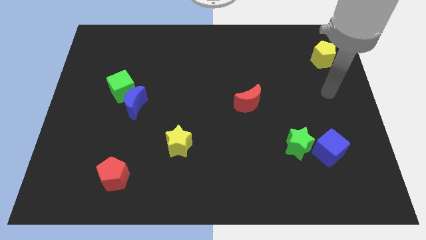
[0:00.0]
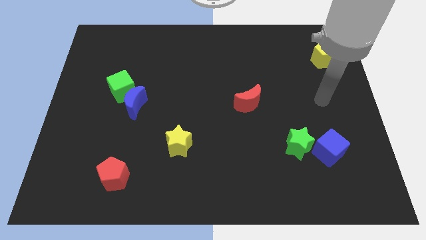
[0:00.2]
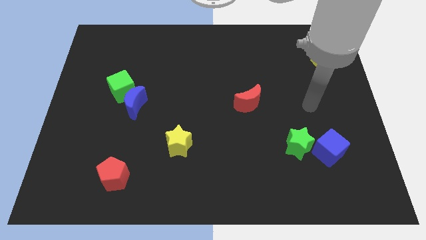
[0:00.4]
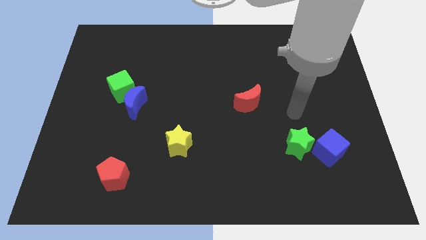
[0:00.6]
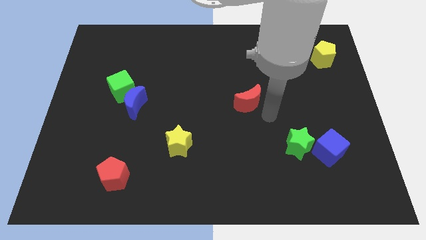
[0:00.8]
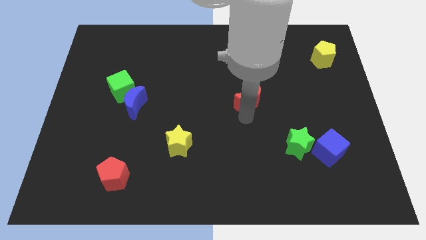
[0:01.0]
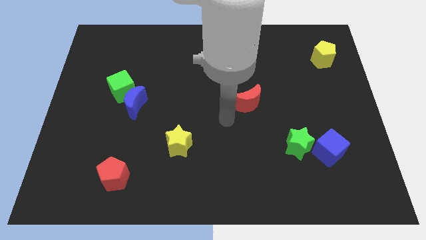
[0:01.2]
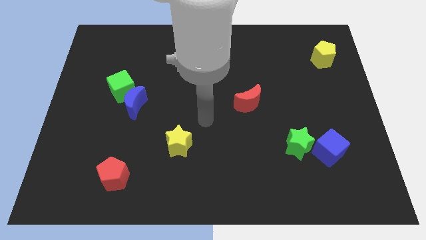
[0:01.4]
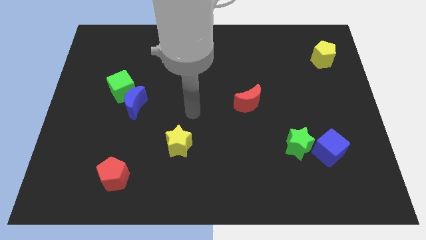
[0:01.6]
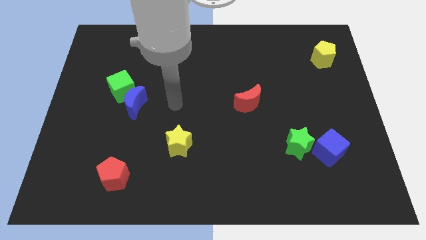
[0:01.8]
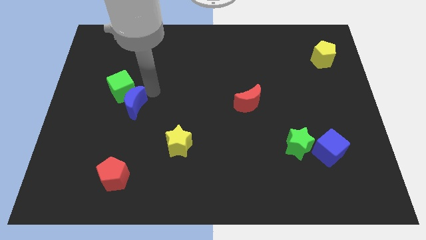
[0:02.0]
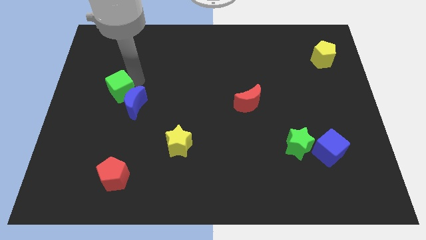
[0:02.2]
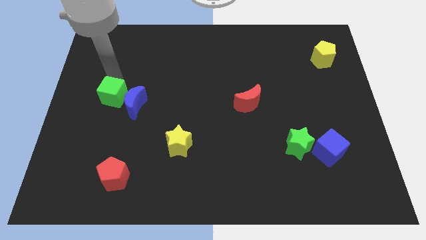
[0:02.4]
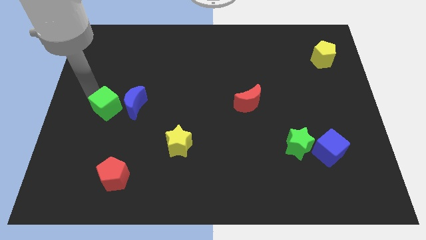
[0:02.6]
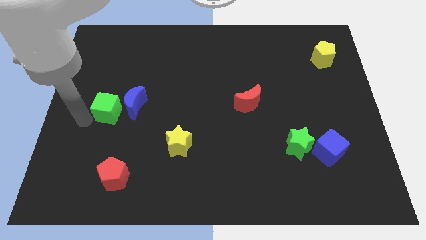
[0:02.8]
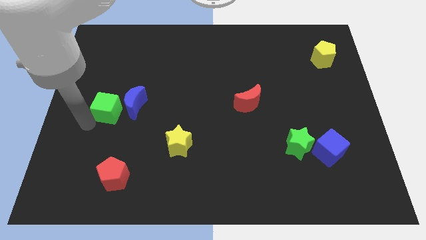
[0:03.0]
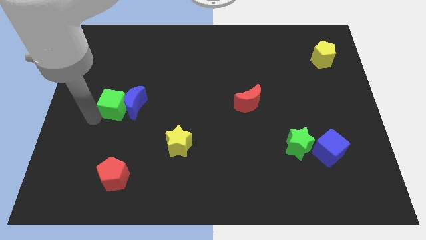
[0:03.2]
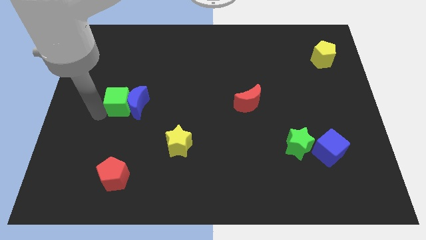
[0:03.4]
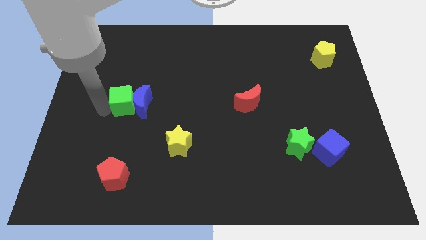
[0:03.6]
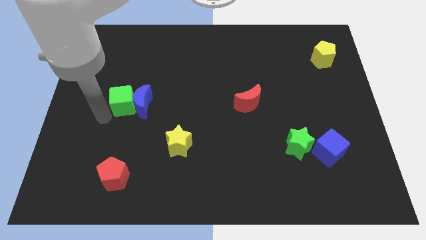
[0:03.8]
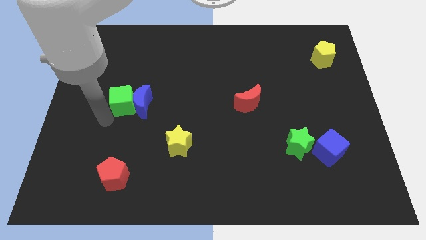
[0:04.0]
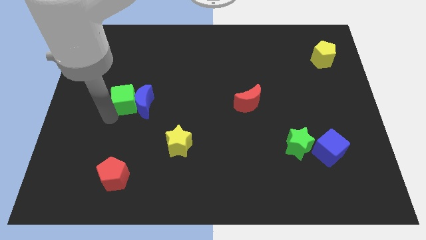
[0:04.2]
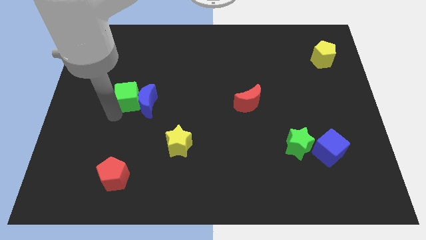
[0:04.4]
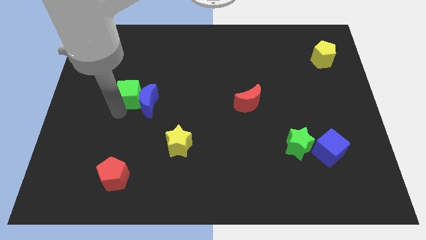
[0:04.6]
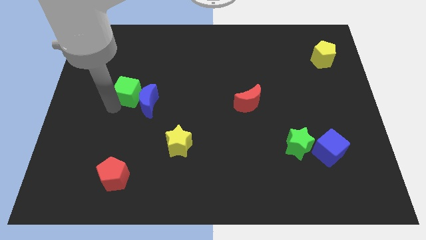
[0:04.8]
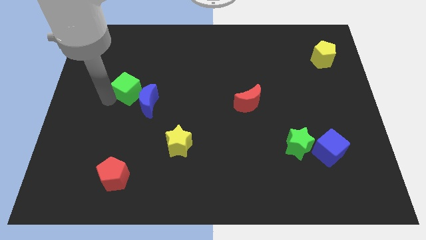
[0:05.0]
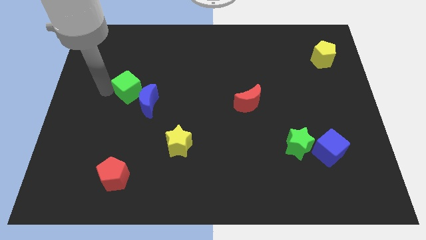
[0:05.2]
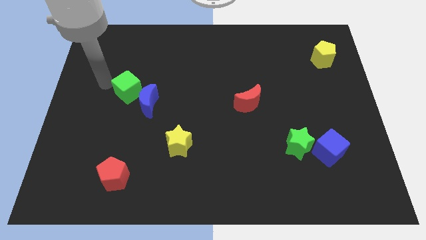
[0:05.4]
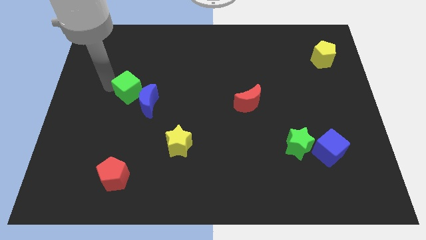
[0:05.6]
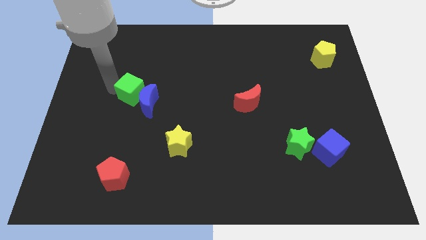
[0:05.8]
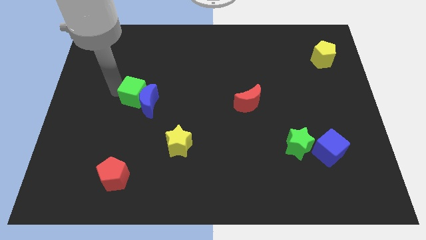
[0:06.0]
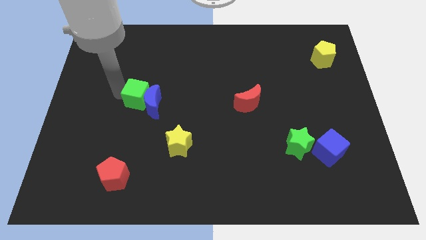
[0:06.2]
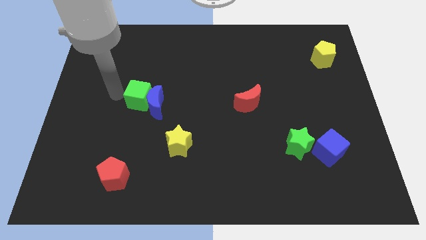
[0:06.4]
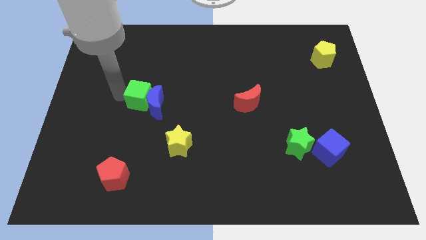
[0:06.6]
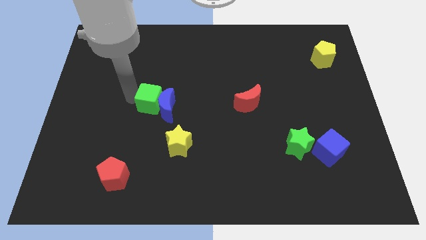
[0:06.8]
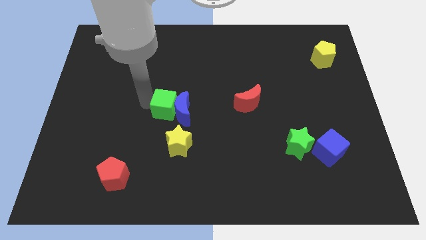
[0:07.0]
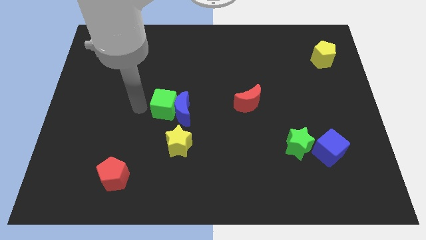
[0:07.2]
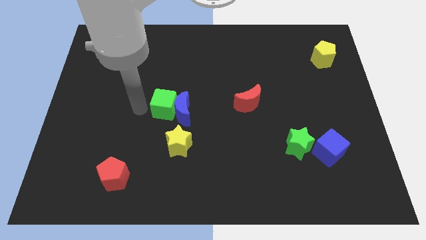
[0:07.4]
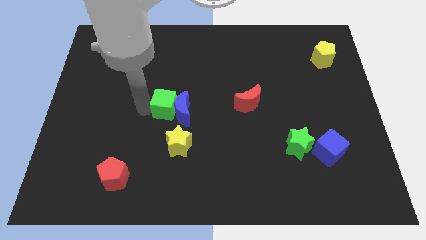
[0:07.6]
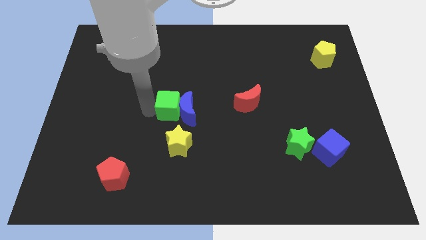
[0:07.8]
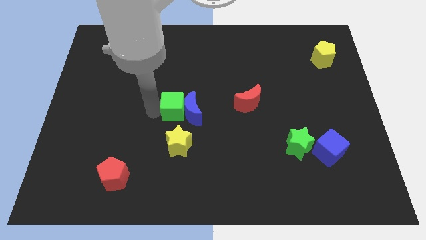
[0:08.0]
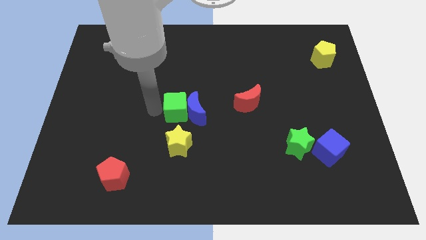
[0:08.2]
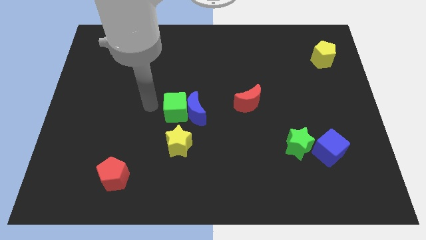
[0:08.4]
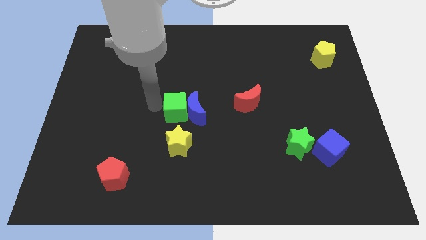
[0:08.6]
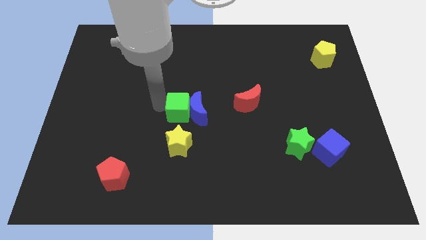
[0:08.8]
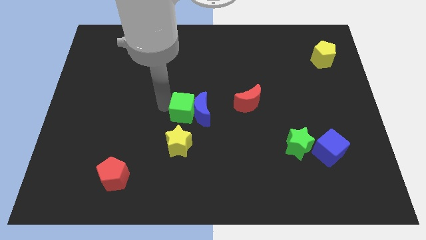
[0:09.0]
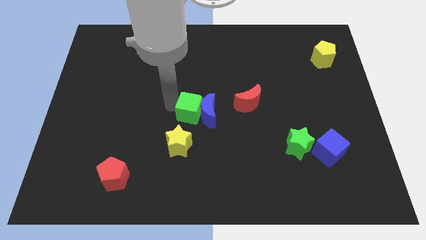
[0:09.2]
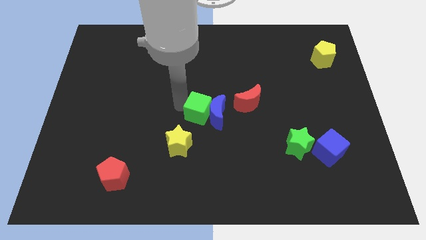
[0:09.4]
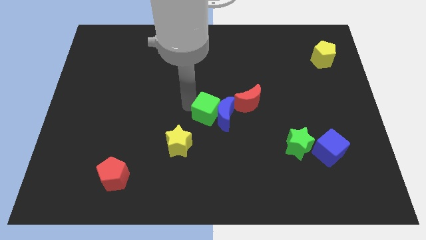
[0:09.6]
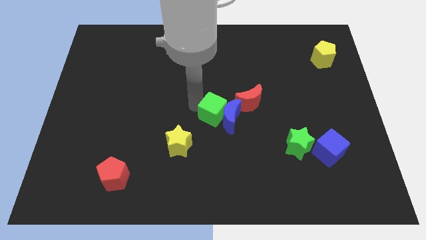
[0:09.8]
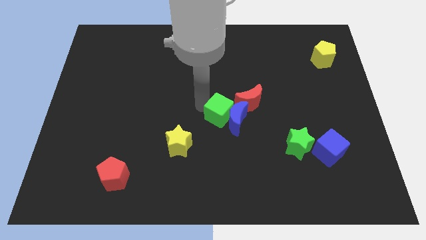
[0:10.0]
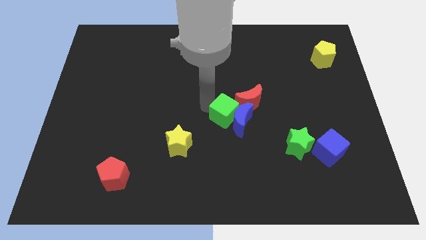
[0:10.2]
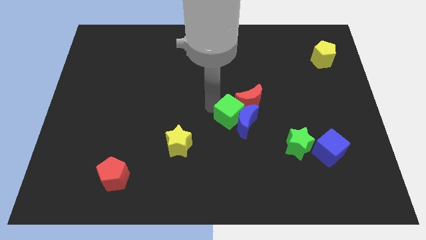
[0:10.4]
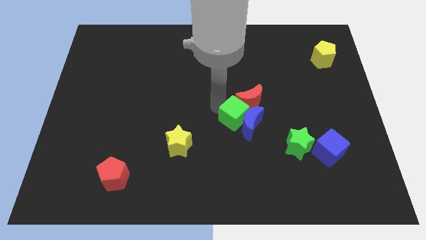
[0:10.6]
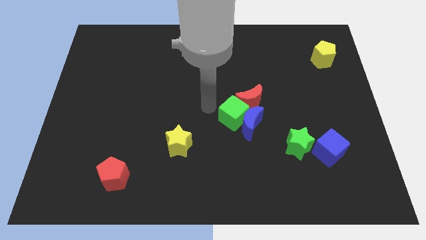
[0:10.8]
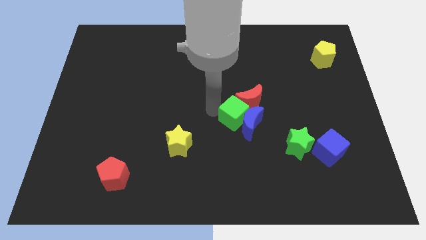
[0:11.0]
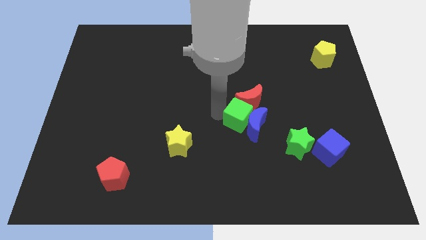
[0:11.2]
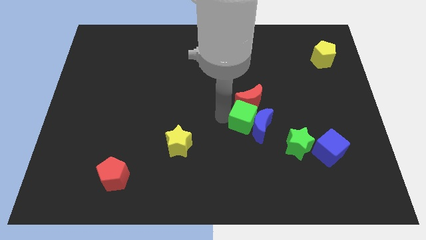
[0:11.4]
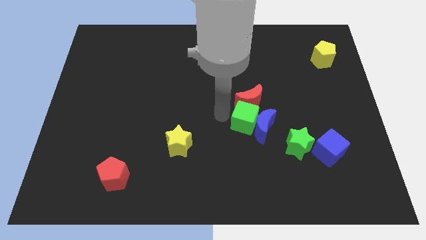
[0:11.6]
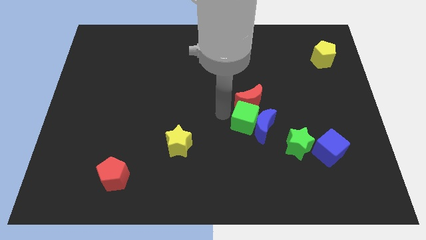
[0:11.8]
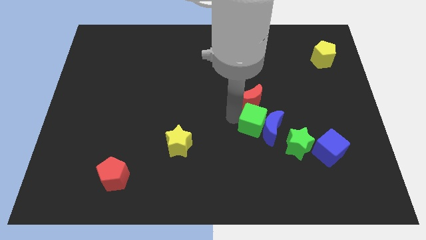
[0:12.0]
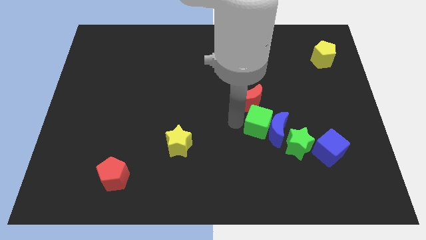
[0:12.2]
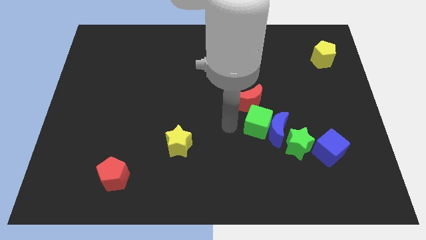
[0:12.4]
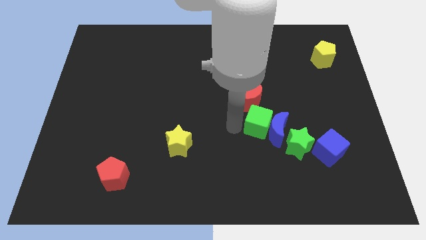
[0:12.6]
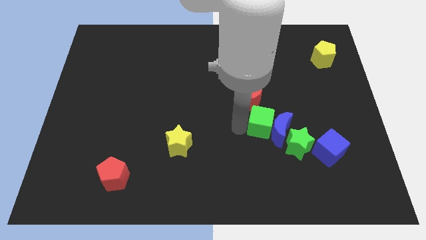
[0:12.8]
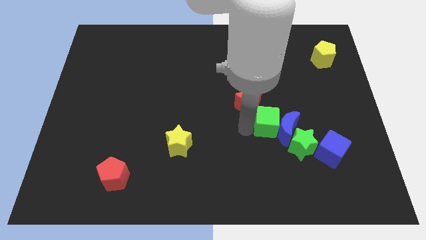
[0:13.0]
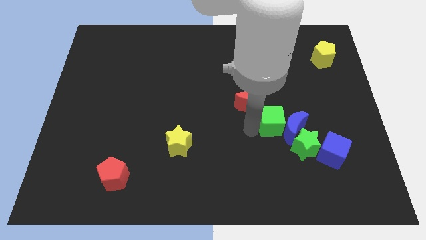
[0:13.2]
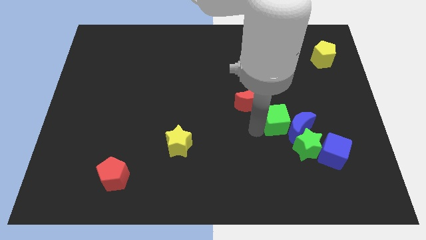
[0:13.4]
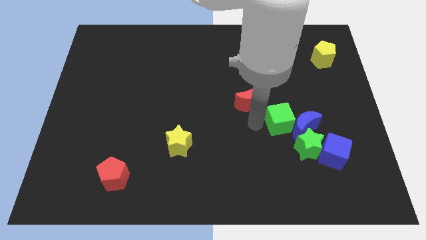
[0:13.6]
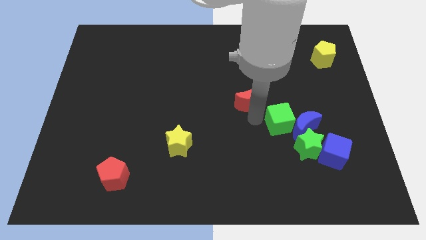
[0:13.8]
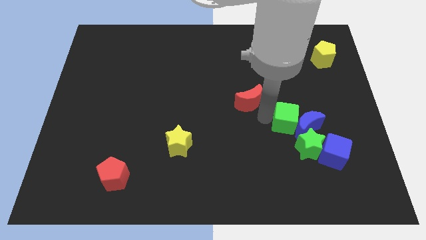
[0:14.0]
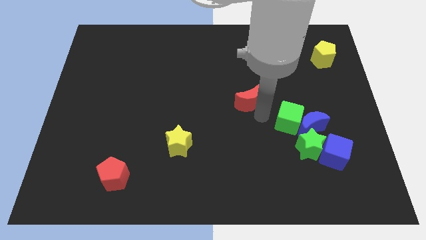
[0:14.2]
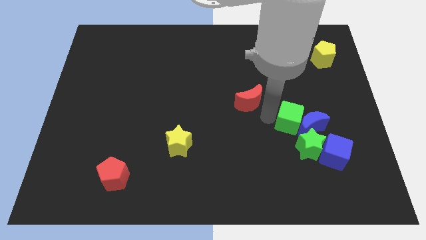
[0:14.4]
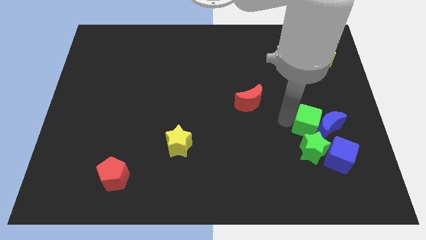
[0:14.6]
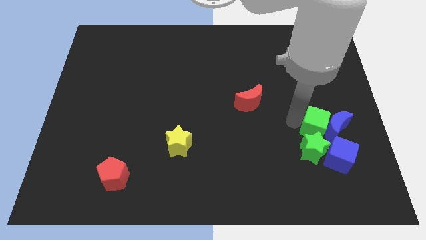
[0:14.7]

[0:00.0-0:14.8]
move the green cube diagonally up and to the right of the green star
